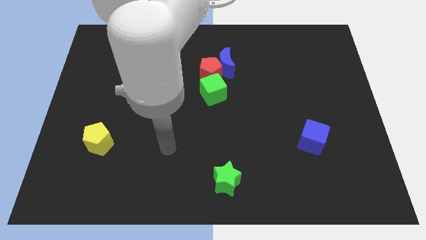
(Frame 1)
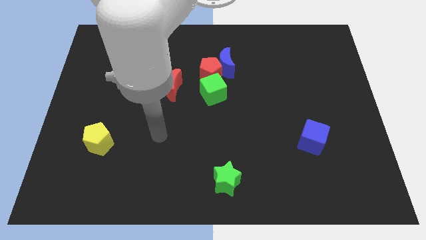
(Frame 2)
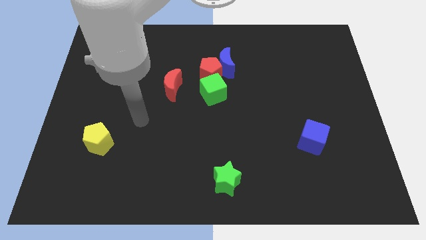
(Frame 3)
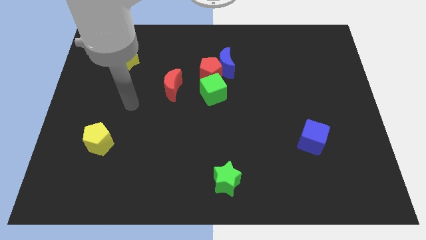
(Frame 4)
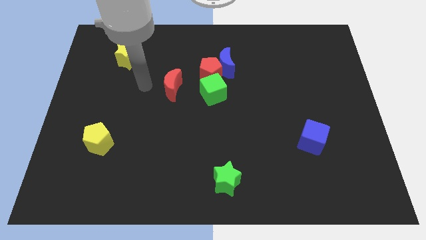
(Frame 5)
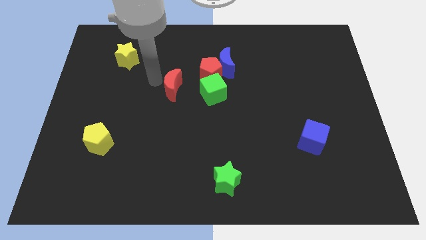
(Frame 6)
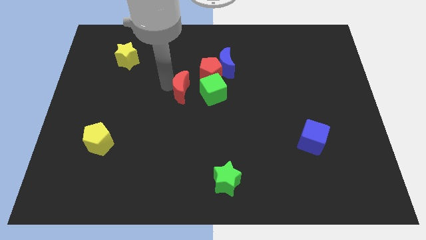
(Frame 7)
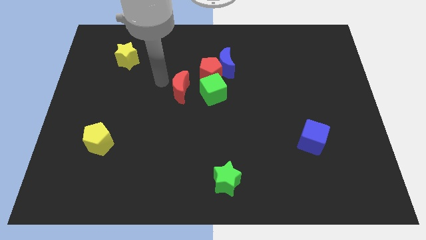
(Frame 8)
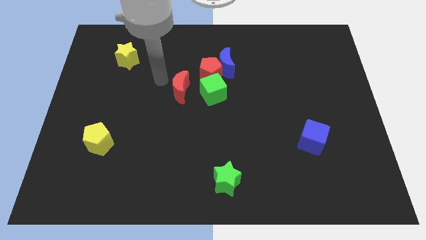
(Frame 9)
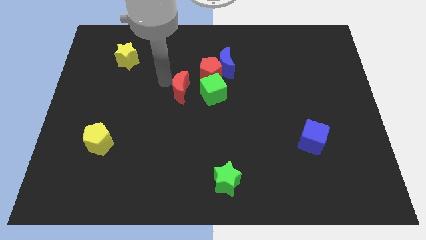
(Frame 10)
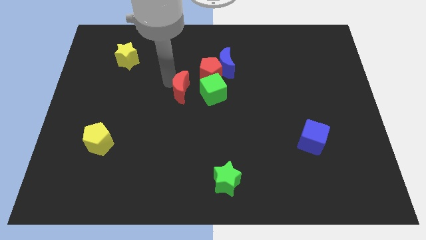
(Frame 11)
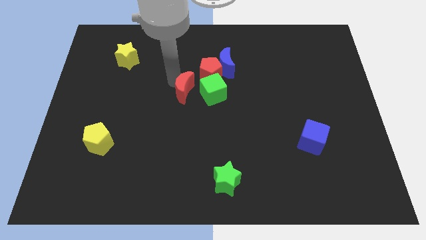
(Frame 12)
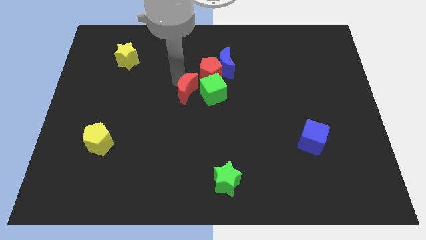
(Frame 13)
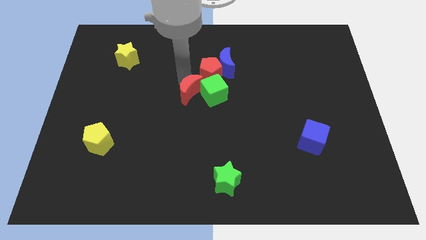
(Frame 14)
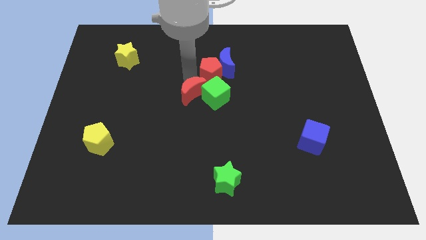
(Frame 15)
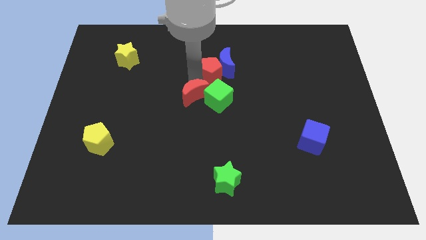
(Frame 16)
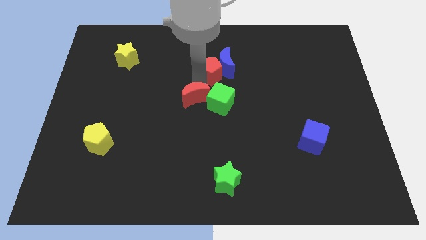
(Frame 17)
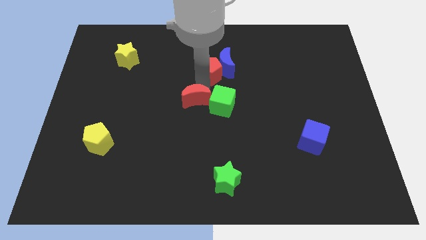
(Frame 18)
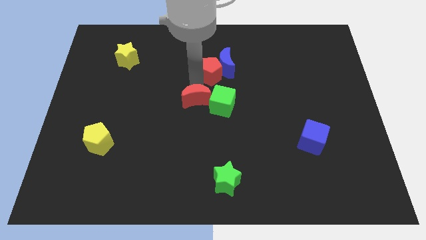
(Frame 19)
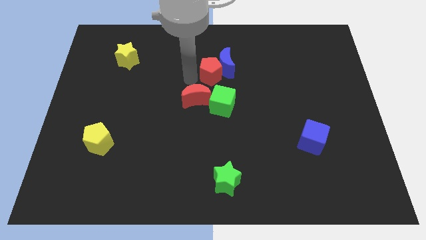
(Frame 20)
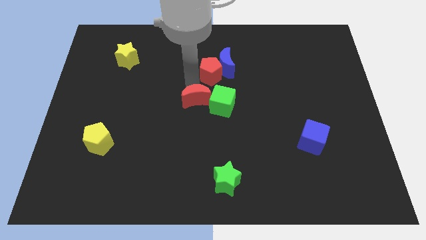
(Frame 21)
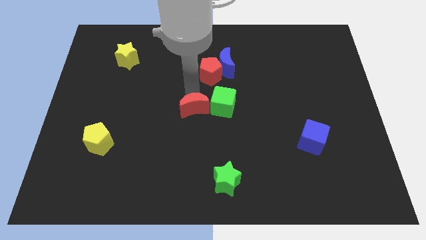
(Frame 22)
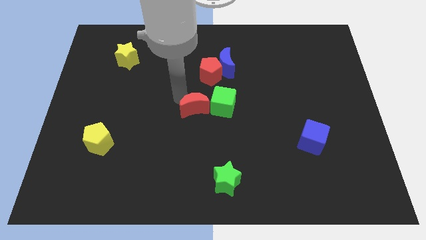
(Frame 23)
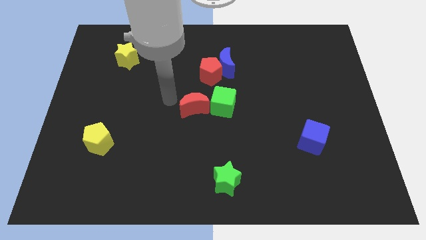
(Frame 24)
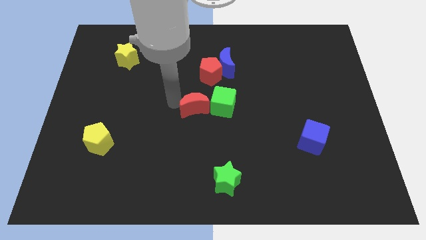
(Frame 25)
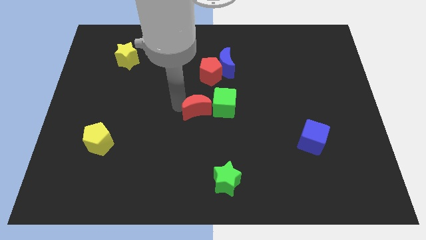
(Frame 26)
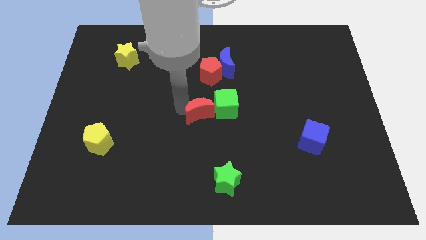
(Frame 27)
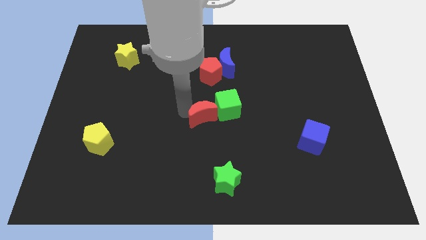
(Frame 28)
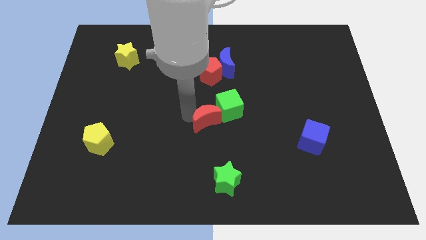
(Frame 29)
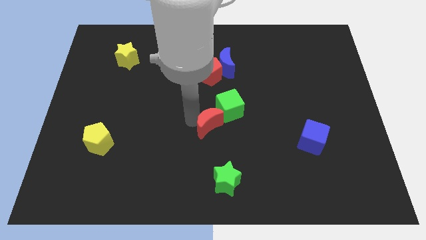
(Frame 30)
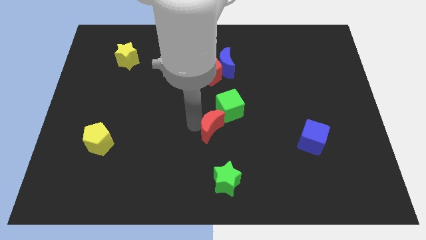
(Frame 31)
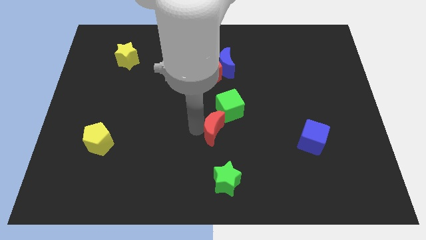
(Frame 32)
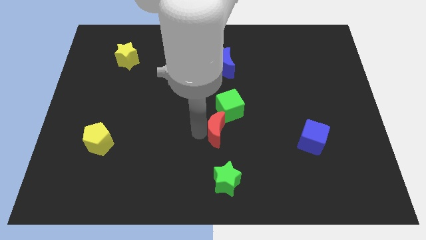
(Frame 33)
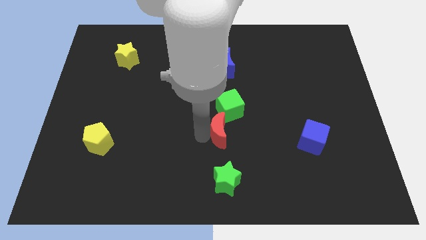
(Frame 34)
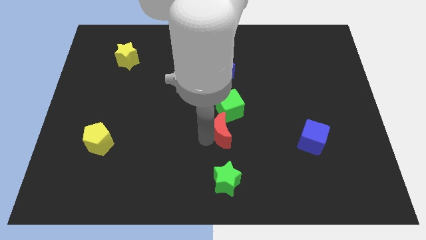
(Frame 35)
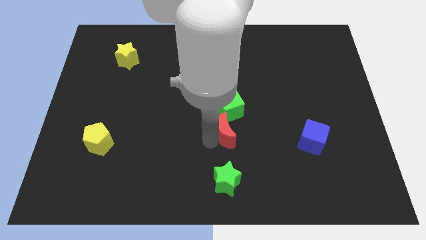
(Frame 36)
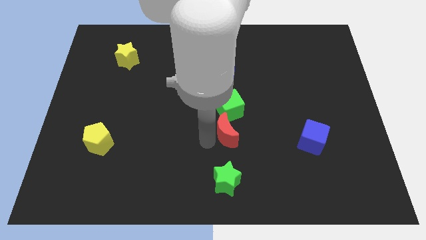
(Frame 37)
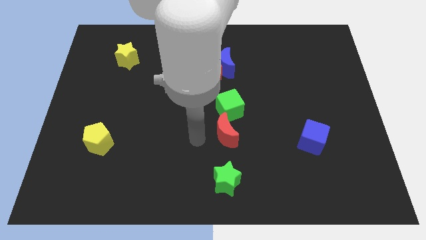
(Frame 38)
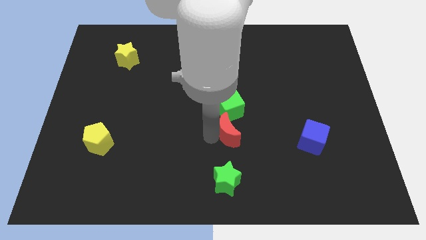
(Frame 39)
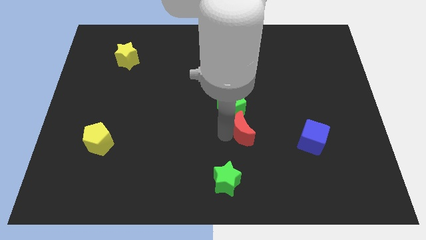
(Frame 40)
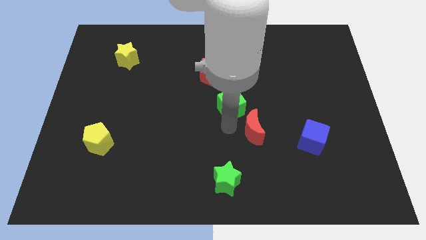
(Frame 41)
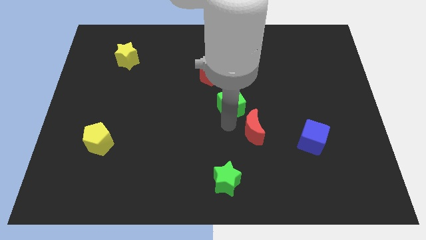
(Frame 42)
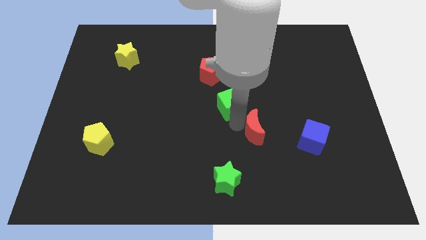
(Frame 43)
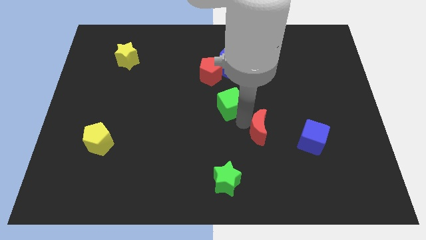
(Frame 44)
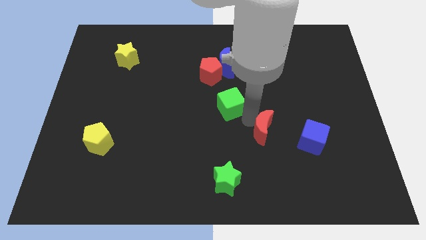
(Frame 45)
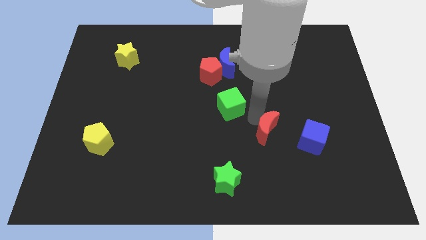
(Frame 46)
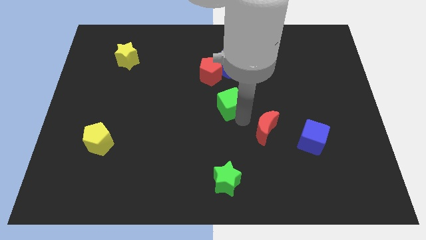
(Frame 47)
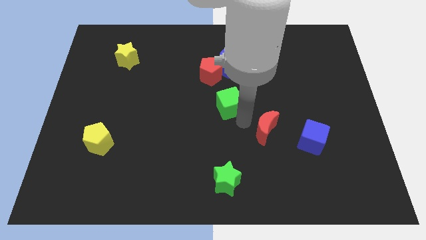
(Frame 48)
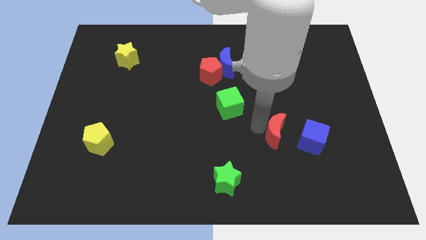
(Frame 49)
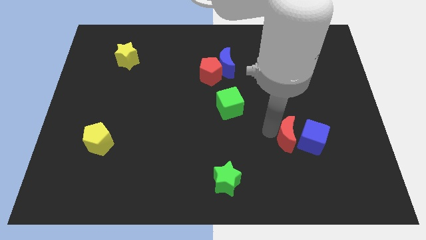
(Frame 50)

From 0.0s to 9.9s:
push the red moon close to the blue cube

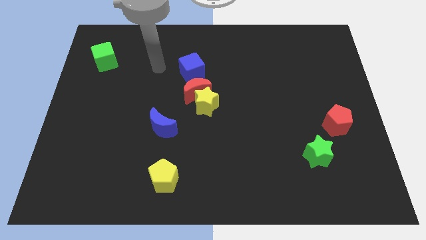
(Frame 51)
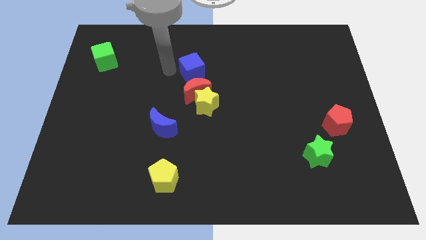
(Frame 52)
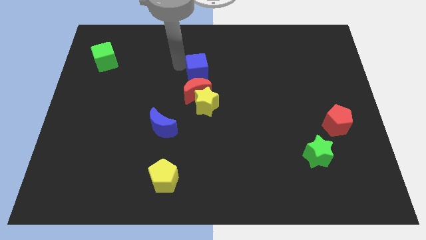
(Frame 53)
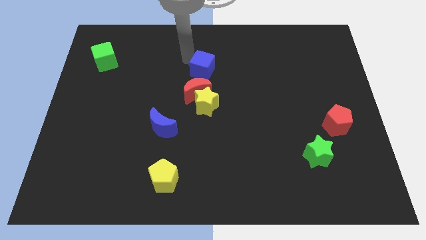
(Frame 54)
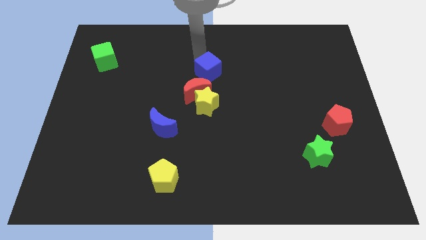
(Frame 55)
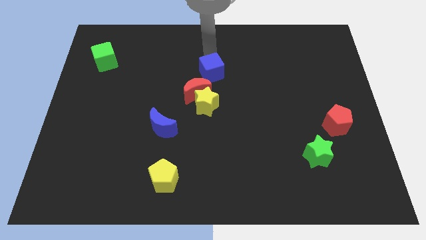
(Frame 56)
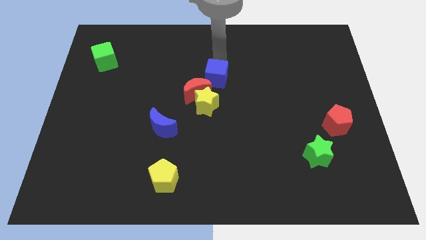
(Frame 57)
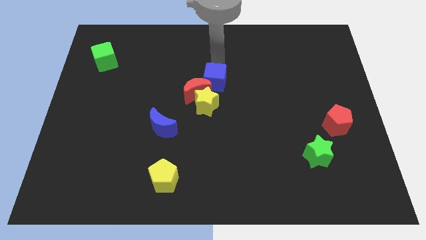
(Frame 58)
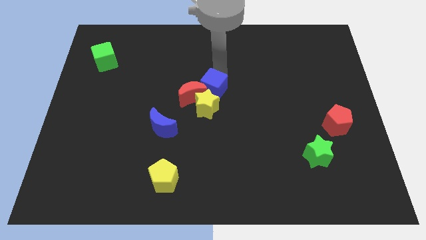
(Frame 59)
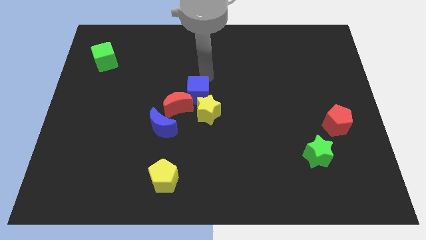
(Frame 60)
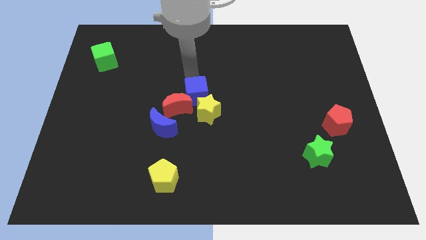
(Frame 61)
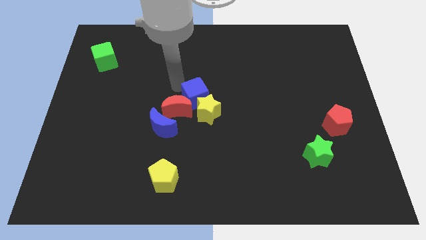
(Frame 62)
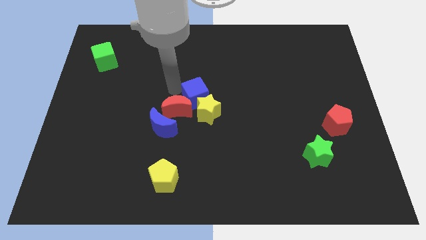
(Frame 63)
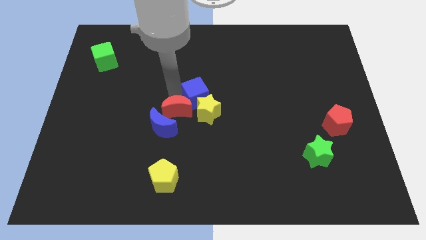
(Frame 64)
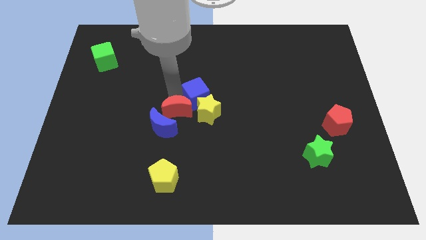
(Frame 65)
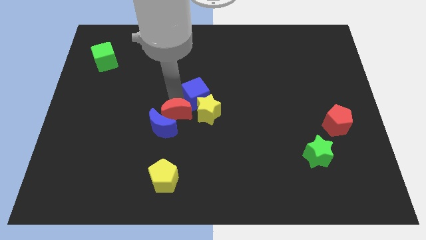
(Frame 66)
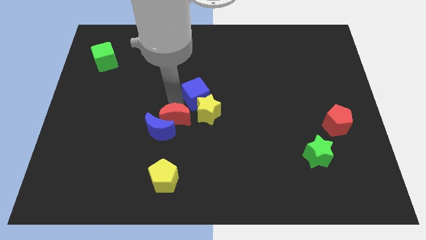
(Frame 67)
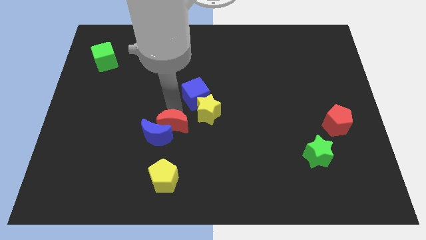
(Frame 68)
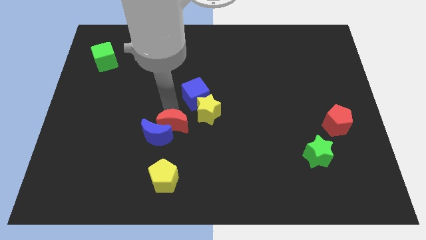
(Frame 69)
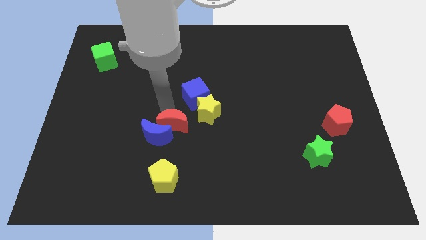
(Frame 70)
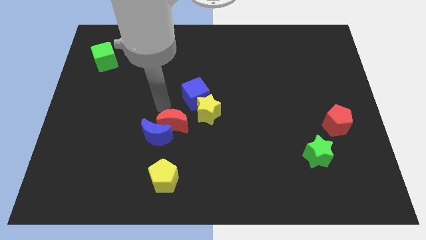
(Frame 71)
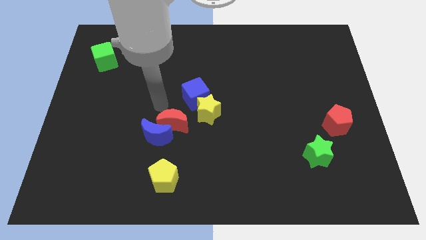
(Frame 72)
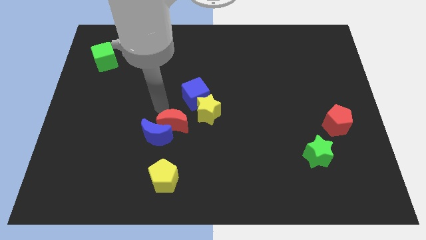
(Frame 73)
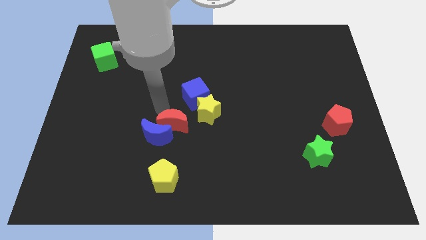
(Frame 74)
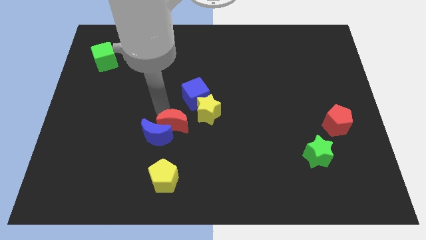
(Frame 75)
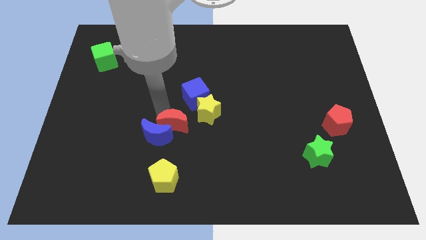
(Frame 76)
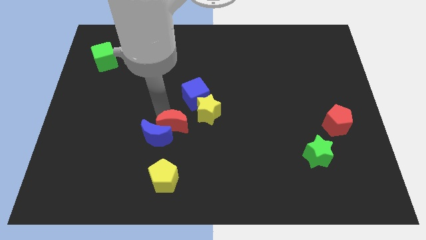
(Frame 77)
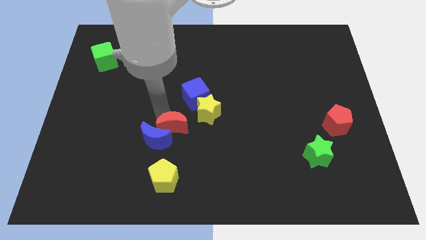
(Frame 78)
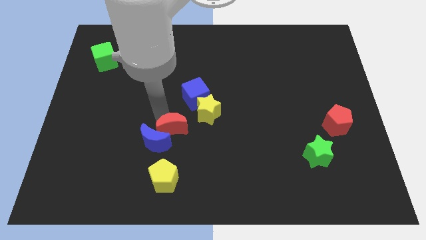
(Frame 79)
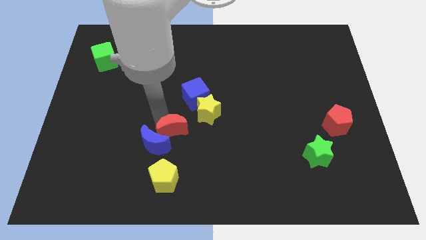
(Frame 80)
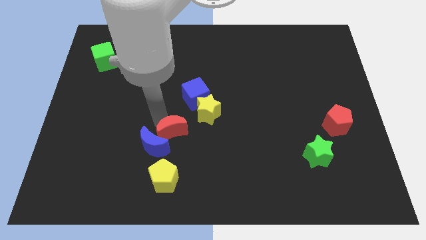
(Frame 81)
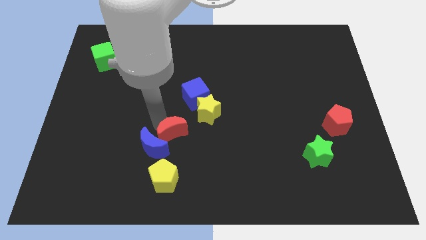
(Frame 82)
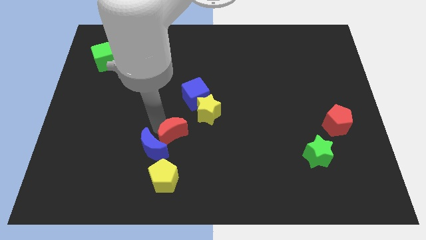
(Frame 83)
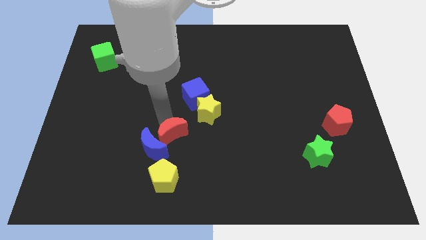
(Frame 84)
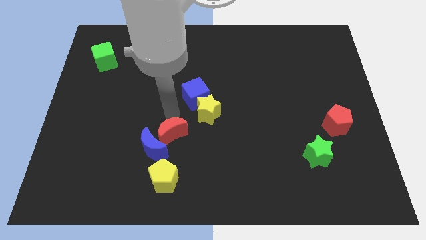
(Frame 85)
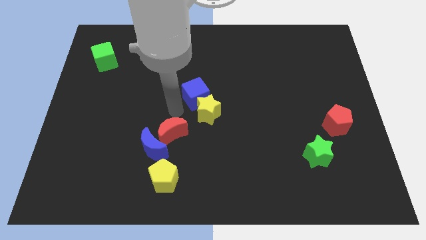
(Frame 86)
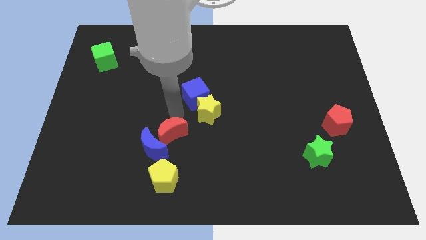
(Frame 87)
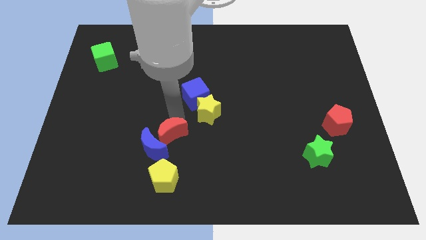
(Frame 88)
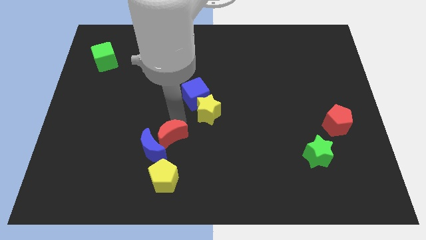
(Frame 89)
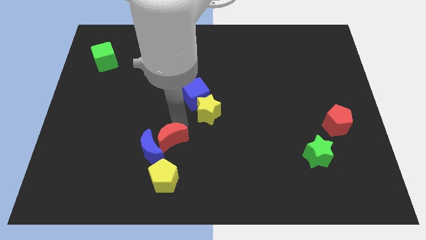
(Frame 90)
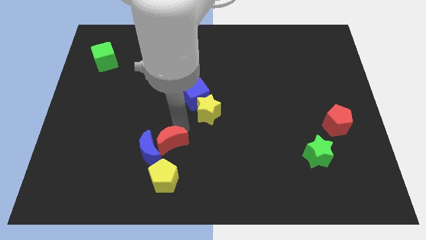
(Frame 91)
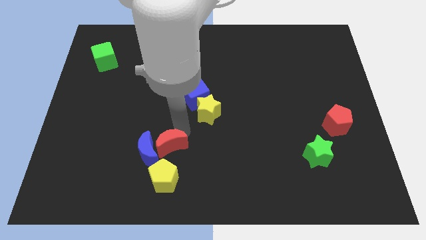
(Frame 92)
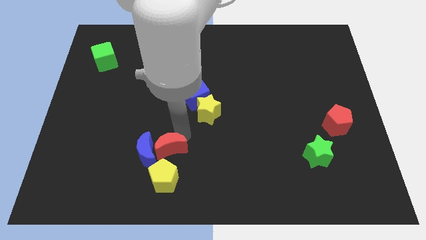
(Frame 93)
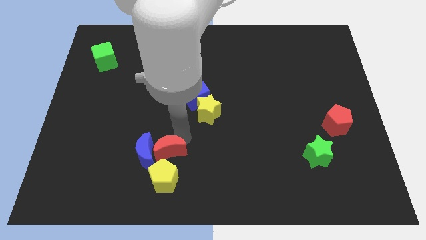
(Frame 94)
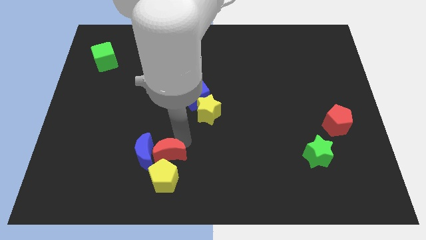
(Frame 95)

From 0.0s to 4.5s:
put the red moon towards the yellow pentagon
